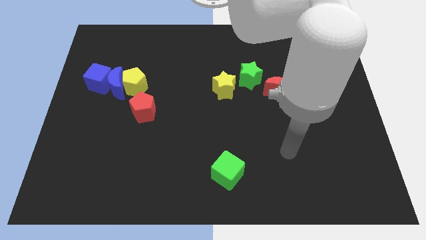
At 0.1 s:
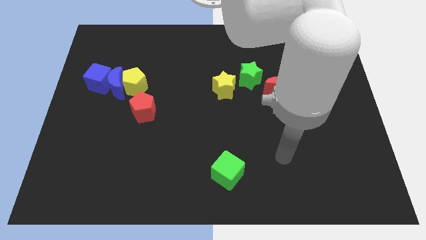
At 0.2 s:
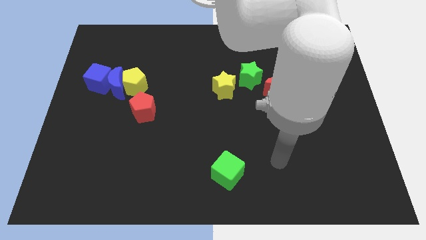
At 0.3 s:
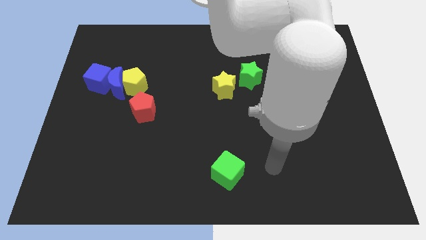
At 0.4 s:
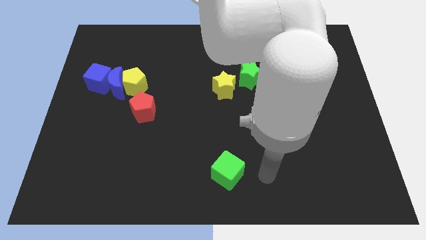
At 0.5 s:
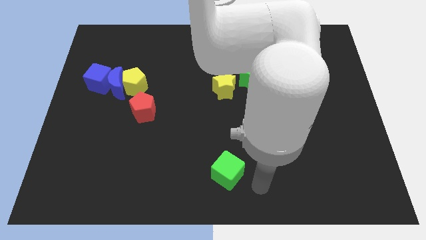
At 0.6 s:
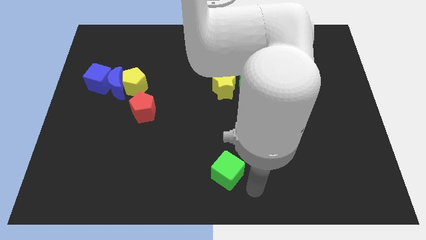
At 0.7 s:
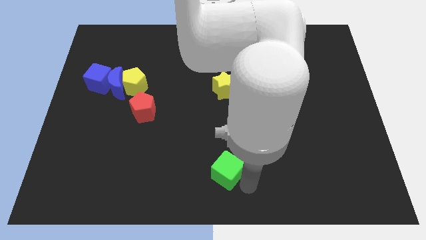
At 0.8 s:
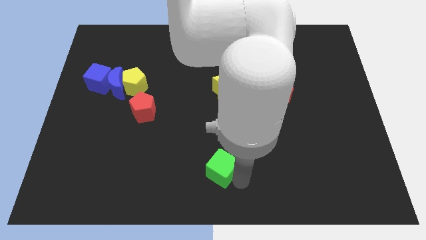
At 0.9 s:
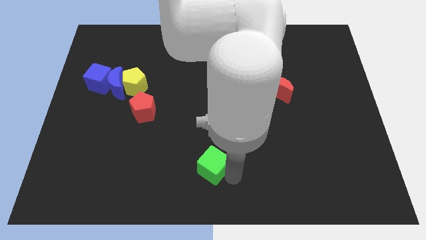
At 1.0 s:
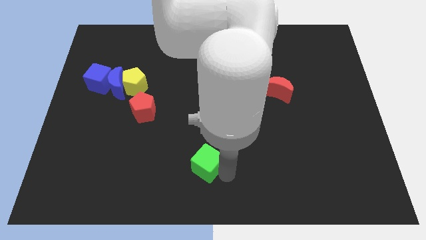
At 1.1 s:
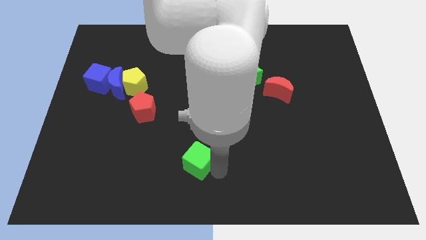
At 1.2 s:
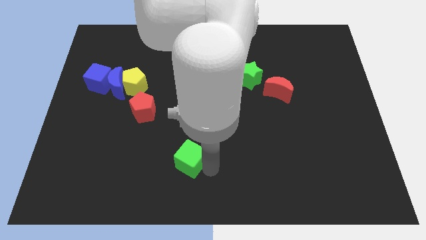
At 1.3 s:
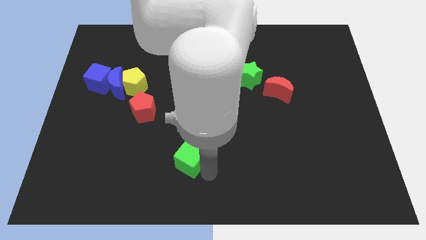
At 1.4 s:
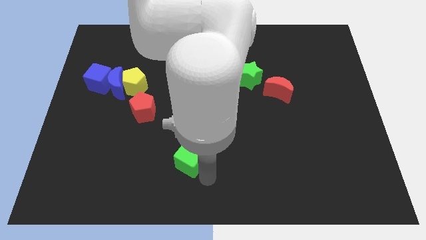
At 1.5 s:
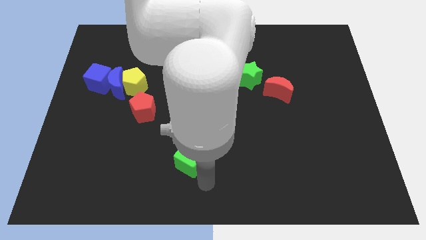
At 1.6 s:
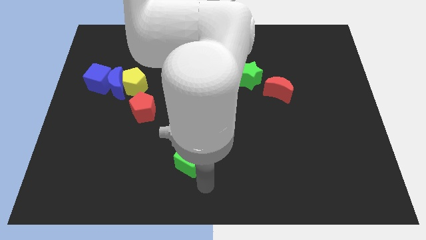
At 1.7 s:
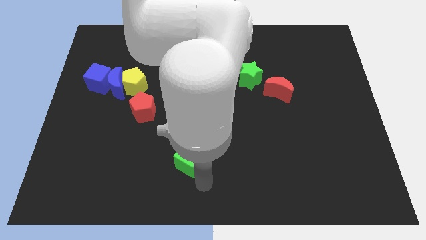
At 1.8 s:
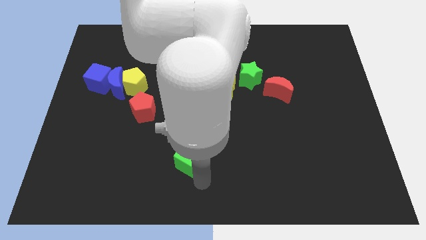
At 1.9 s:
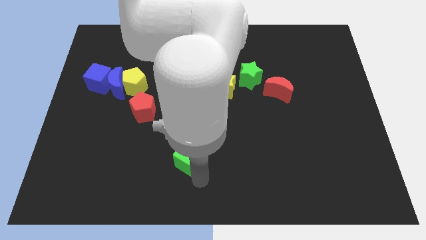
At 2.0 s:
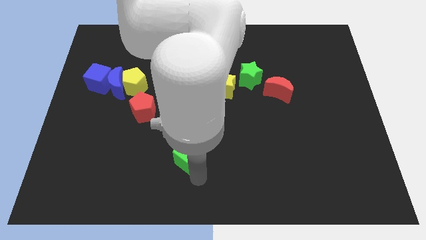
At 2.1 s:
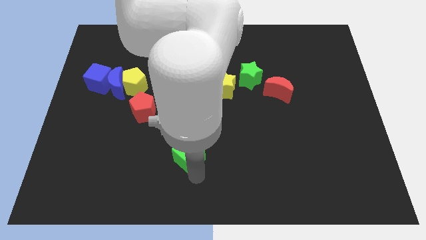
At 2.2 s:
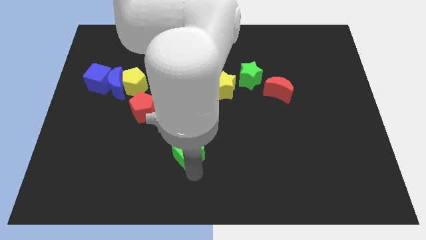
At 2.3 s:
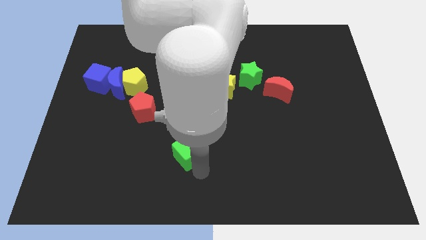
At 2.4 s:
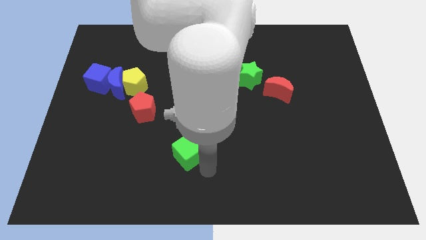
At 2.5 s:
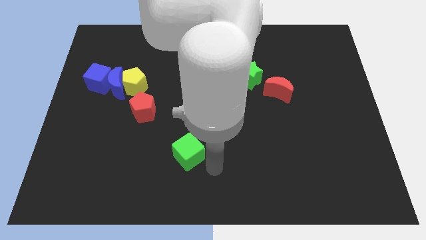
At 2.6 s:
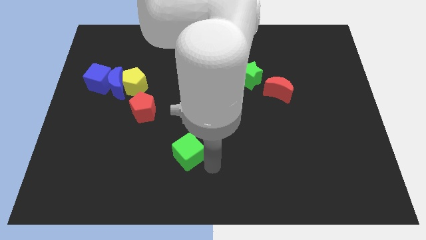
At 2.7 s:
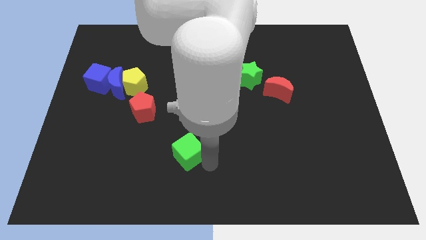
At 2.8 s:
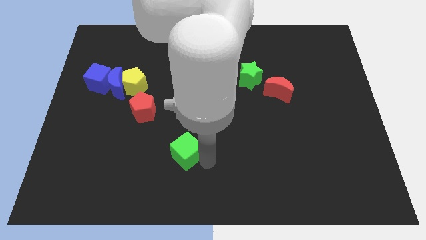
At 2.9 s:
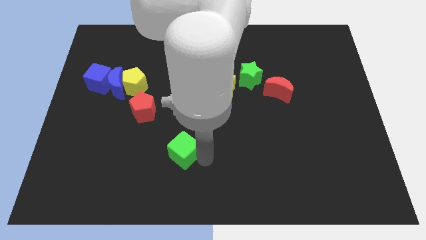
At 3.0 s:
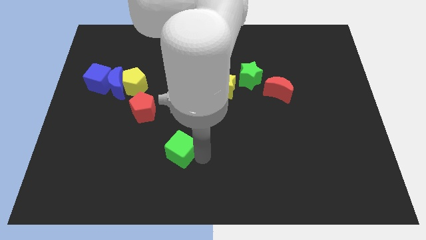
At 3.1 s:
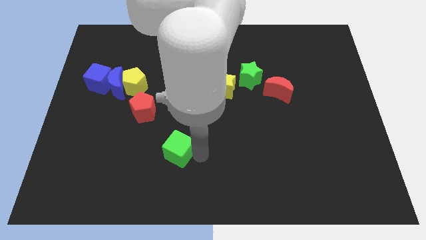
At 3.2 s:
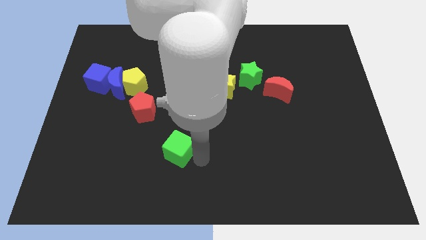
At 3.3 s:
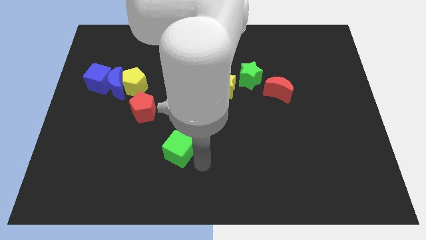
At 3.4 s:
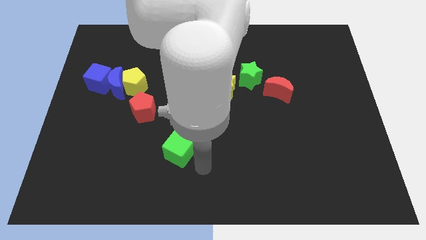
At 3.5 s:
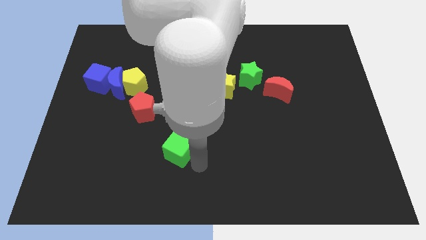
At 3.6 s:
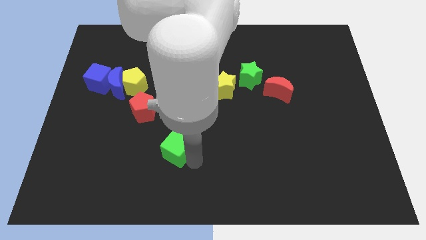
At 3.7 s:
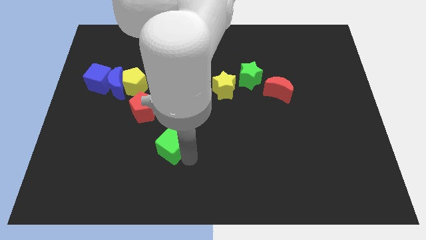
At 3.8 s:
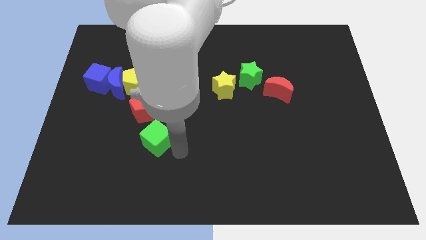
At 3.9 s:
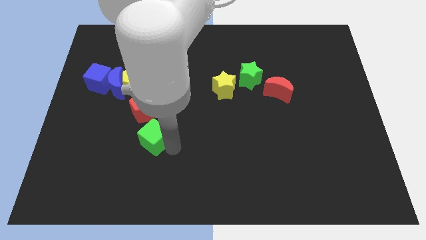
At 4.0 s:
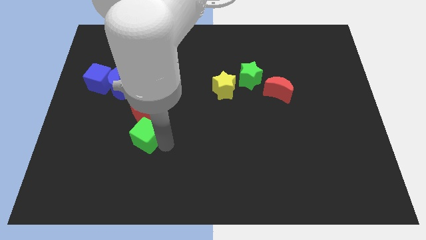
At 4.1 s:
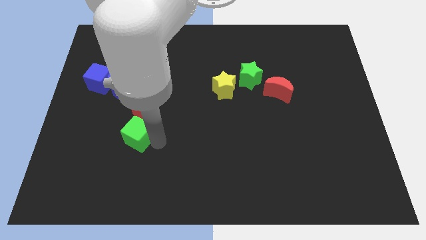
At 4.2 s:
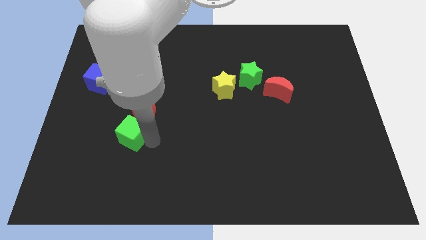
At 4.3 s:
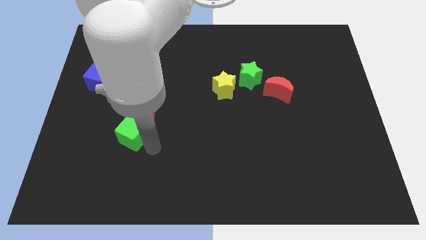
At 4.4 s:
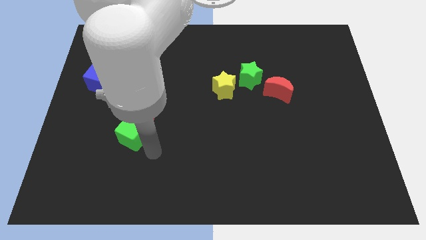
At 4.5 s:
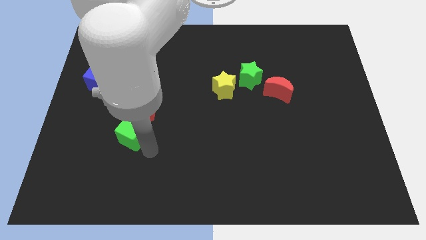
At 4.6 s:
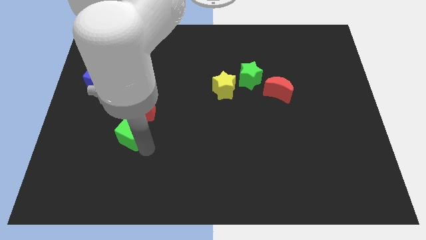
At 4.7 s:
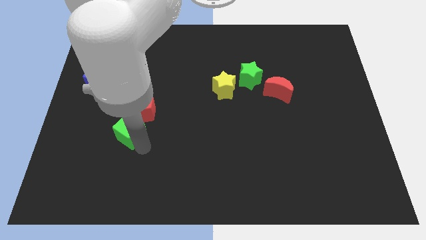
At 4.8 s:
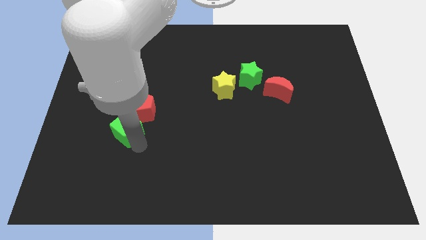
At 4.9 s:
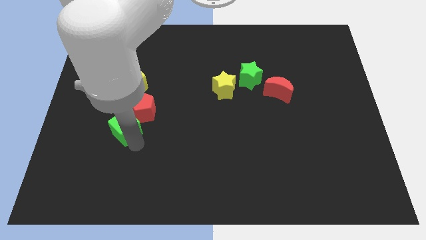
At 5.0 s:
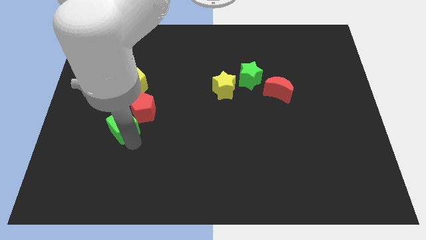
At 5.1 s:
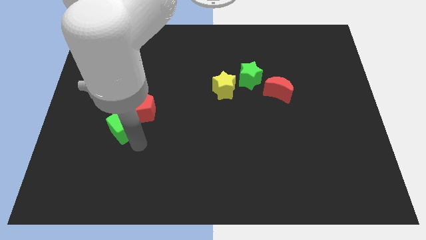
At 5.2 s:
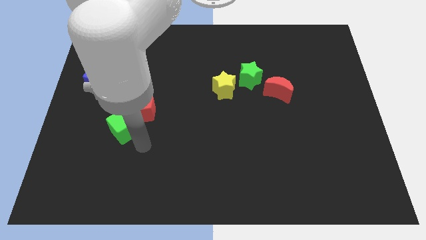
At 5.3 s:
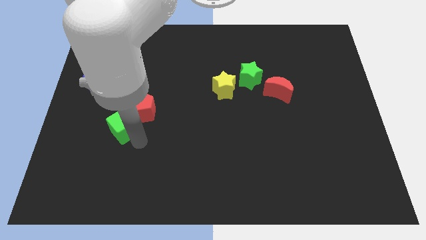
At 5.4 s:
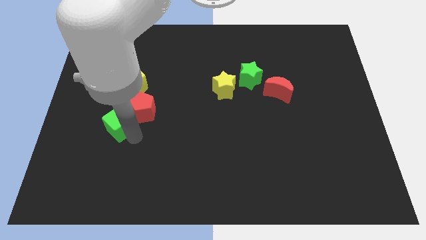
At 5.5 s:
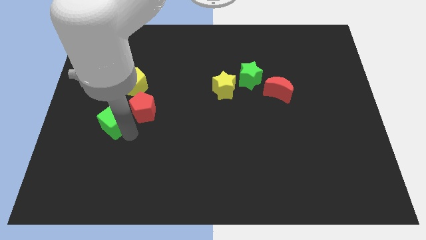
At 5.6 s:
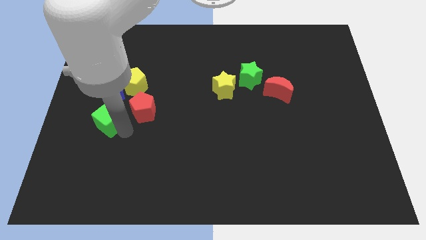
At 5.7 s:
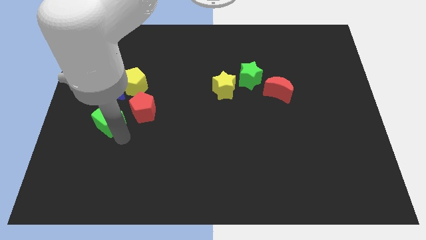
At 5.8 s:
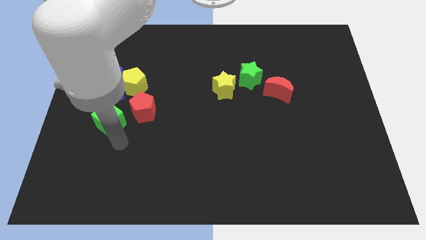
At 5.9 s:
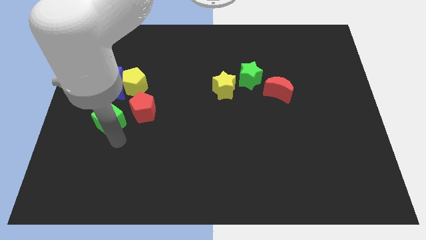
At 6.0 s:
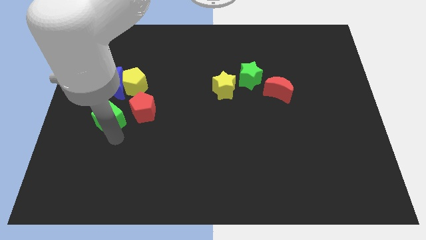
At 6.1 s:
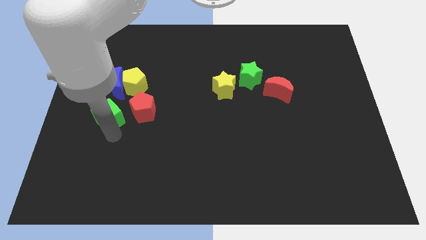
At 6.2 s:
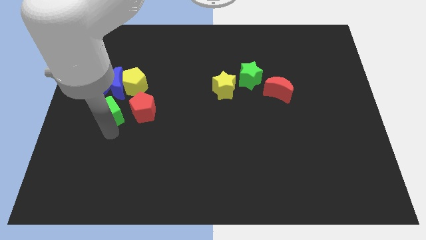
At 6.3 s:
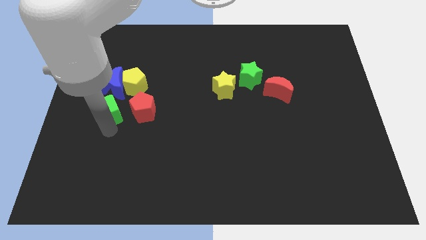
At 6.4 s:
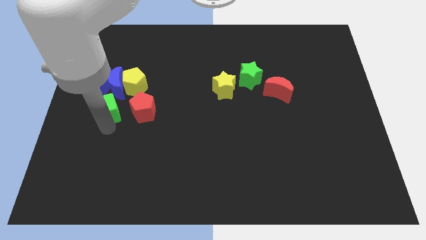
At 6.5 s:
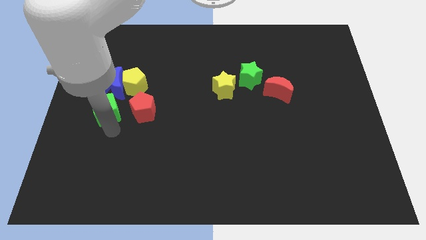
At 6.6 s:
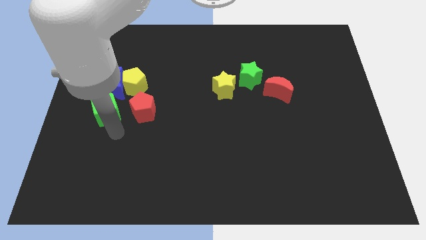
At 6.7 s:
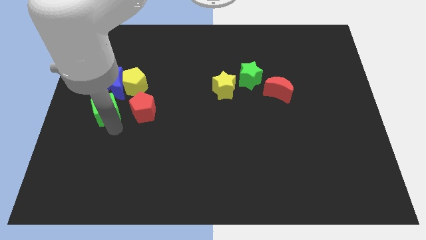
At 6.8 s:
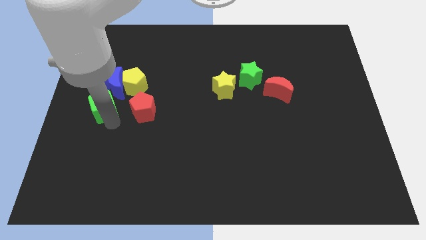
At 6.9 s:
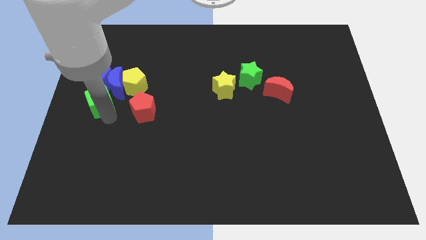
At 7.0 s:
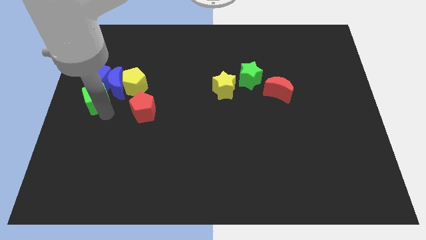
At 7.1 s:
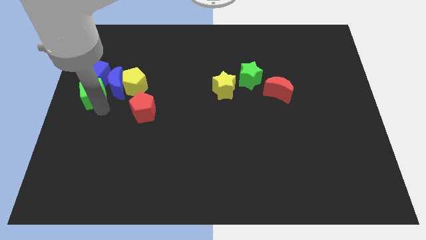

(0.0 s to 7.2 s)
slide the green cube towards the blue cube
